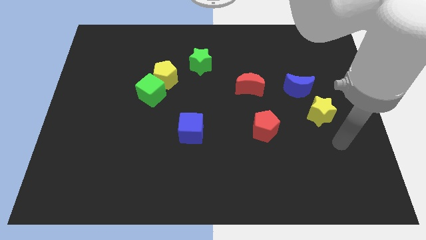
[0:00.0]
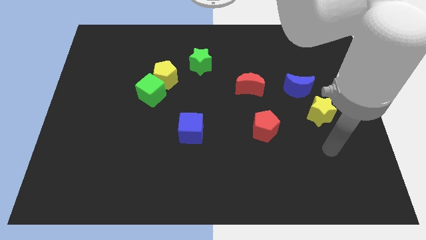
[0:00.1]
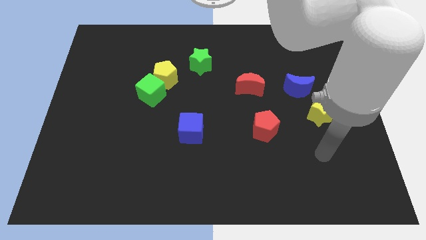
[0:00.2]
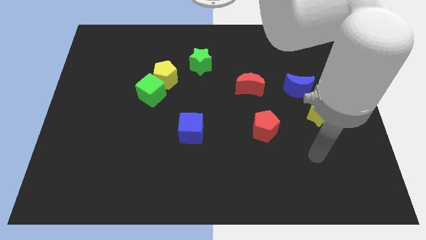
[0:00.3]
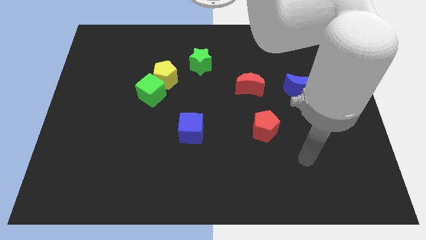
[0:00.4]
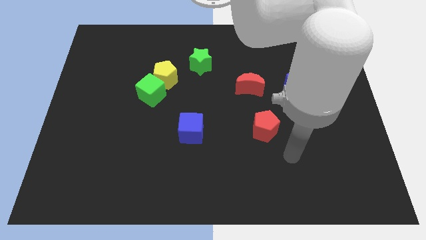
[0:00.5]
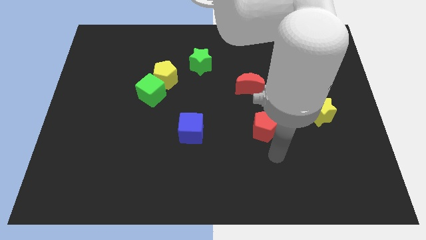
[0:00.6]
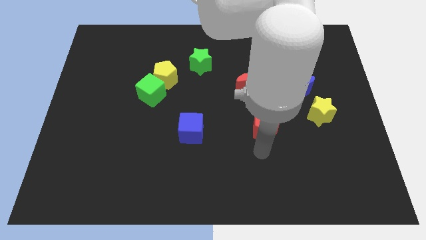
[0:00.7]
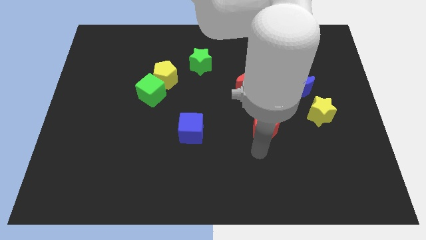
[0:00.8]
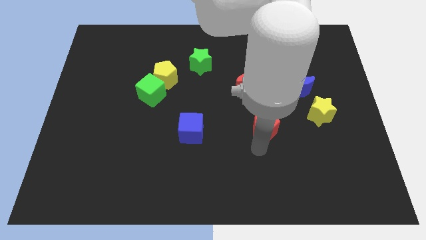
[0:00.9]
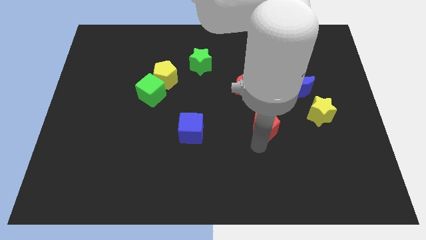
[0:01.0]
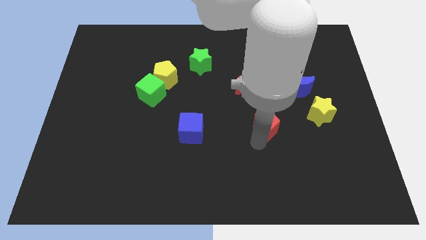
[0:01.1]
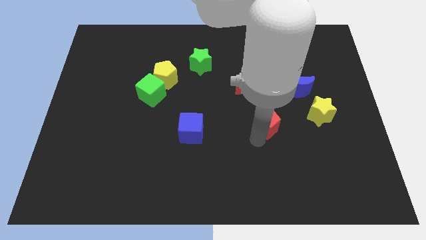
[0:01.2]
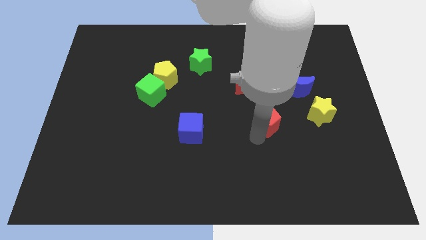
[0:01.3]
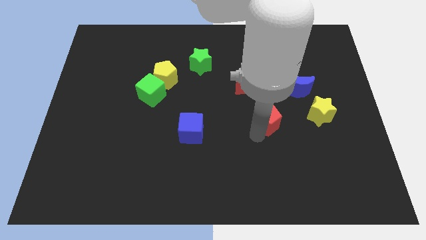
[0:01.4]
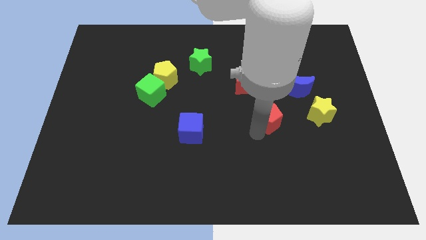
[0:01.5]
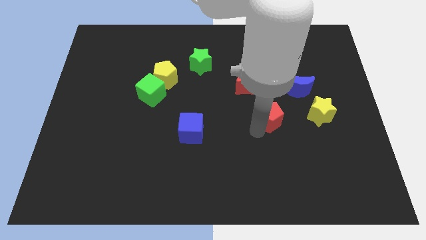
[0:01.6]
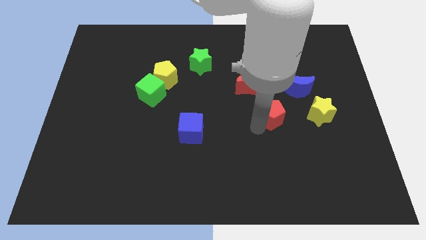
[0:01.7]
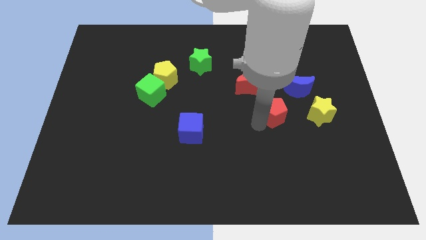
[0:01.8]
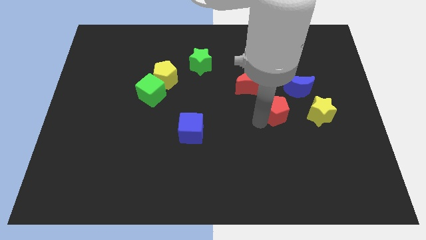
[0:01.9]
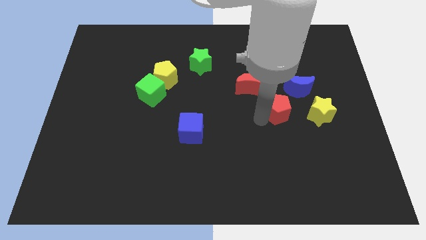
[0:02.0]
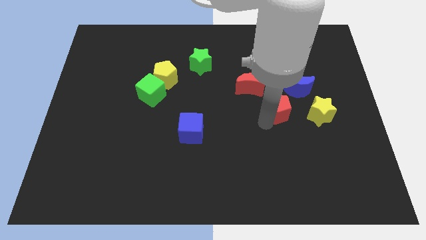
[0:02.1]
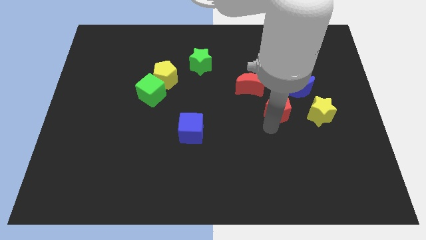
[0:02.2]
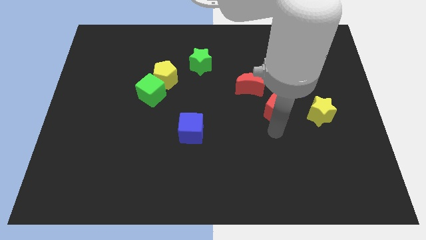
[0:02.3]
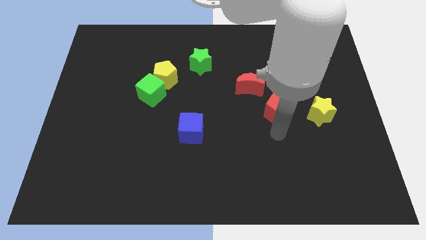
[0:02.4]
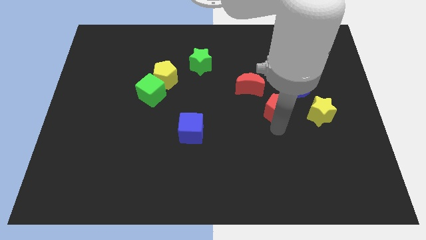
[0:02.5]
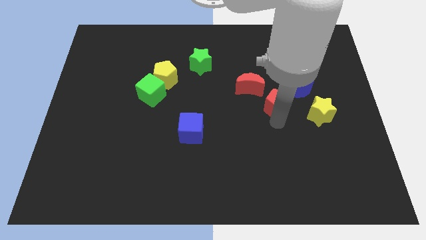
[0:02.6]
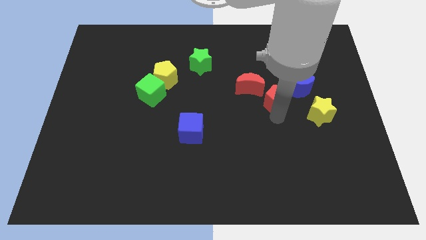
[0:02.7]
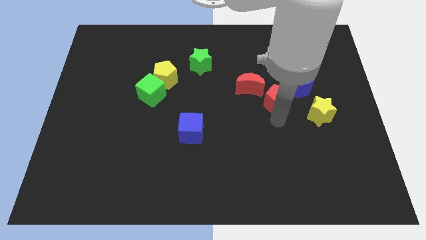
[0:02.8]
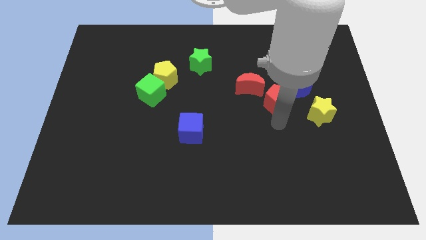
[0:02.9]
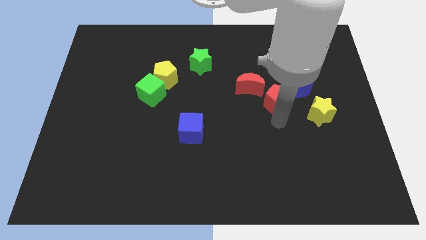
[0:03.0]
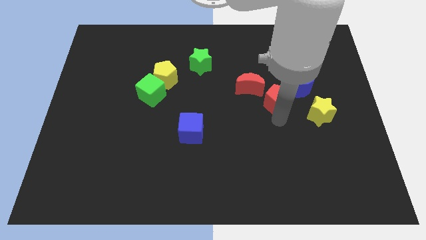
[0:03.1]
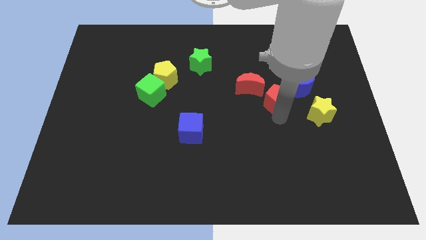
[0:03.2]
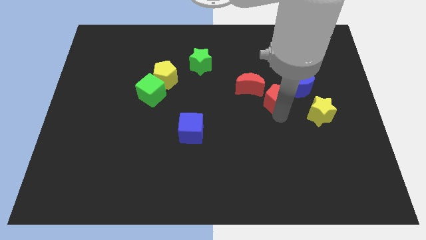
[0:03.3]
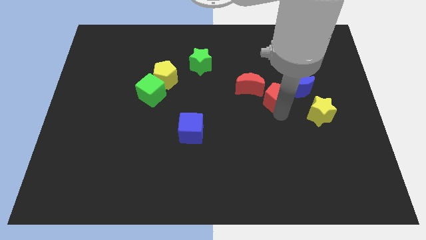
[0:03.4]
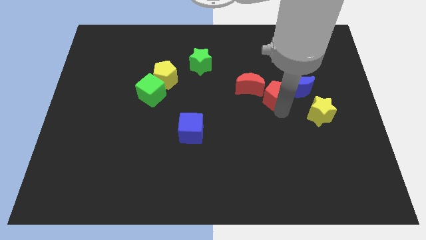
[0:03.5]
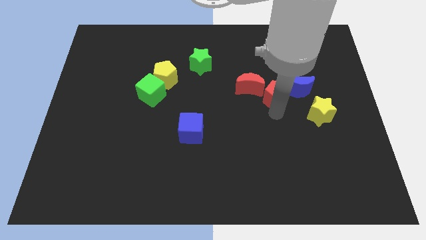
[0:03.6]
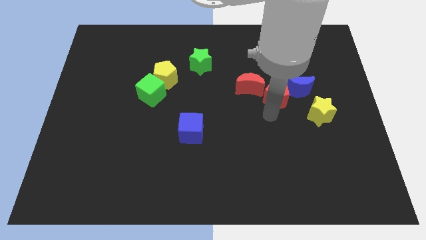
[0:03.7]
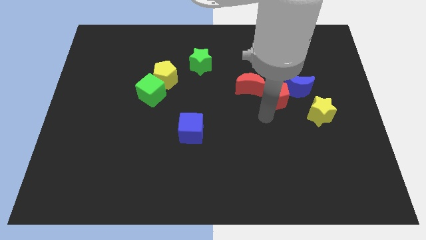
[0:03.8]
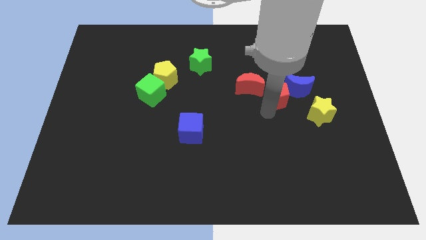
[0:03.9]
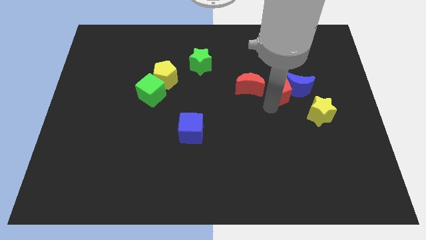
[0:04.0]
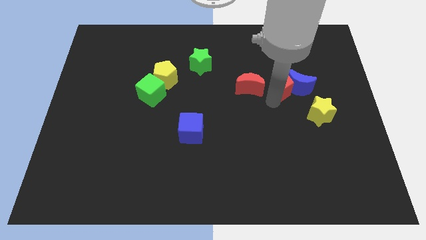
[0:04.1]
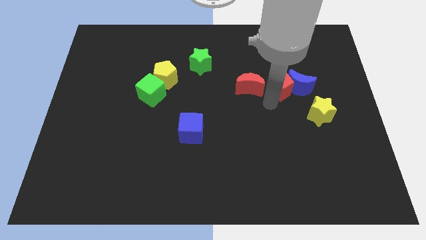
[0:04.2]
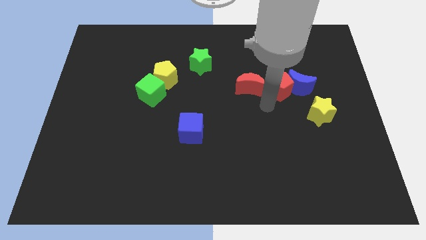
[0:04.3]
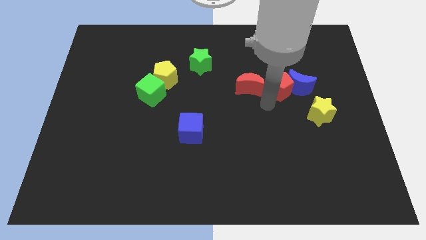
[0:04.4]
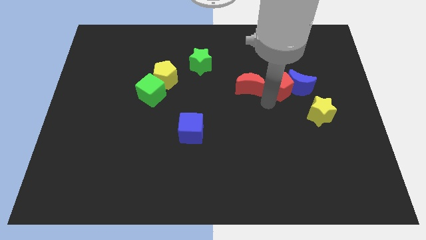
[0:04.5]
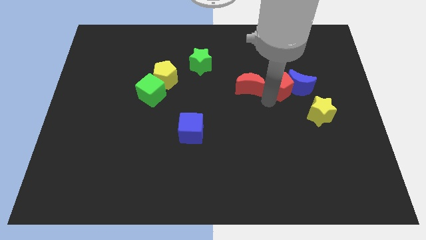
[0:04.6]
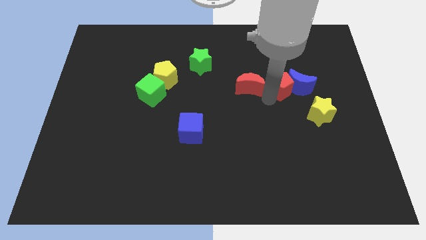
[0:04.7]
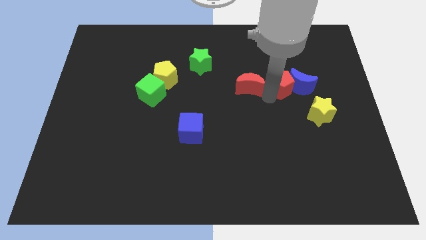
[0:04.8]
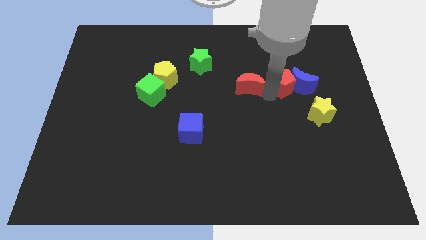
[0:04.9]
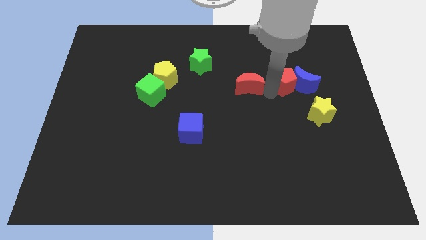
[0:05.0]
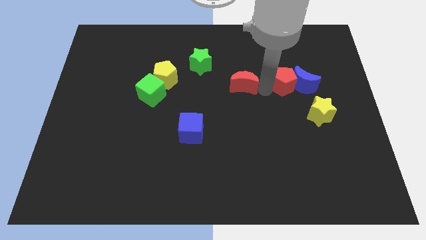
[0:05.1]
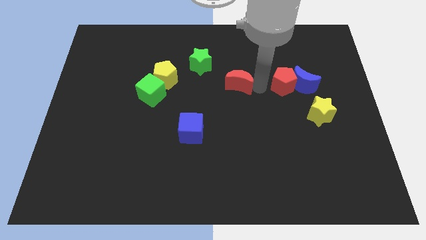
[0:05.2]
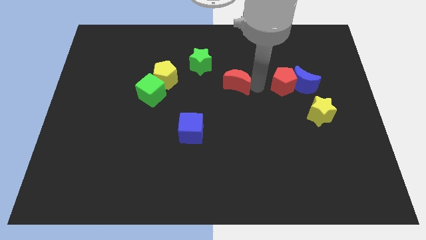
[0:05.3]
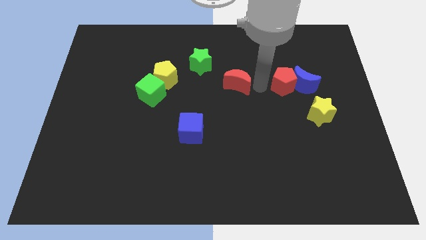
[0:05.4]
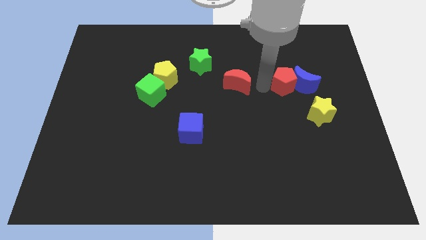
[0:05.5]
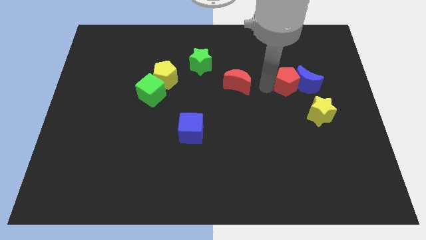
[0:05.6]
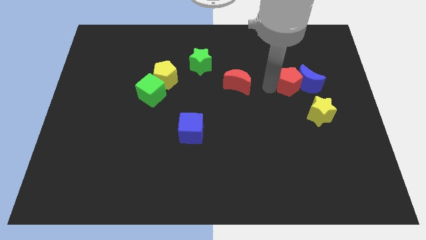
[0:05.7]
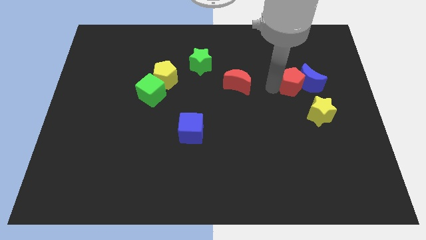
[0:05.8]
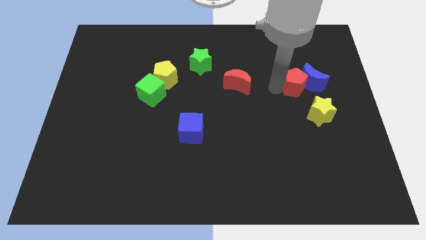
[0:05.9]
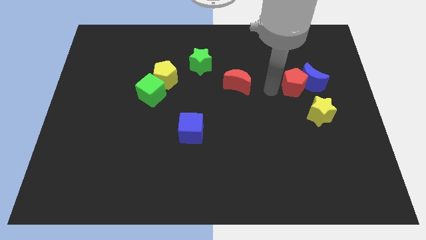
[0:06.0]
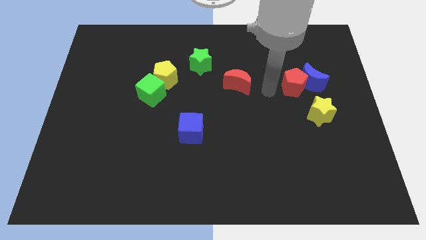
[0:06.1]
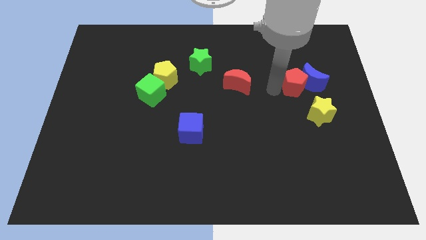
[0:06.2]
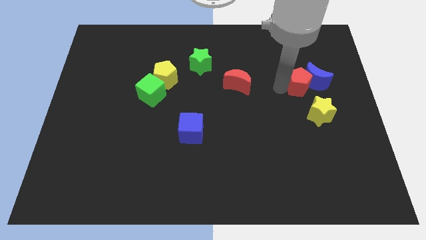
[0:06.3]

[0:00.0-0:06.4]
push the red pentagon above the yellow star
